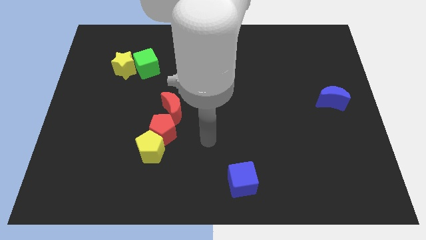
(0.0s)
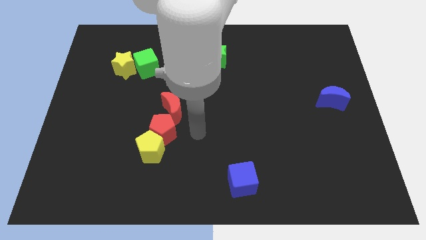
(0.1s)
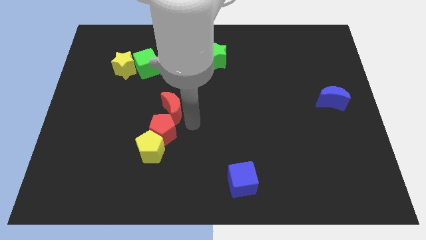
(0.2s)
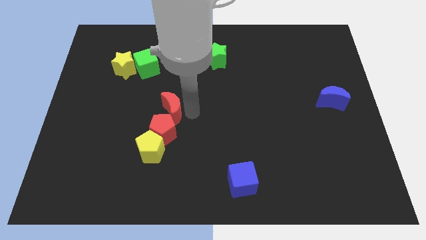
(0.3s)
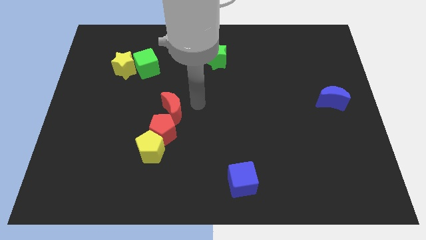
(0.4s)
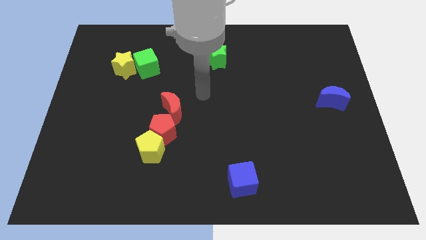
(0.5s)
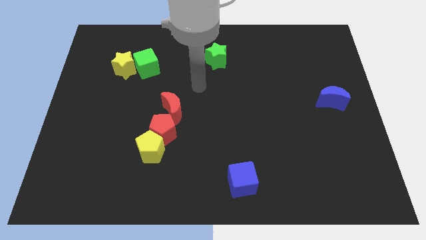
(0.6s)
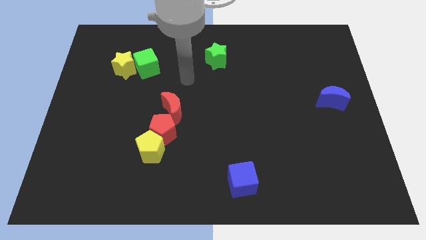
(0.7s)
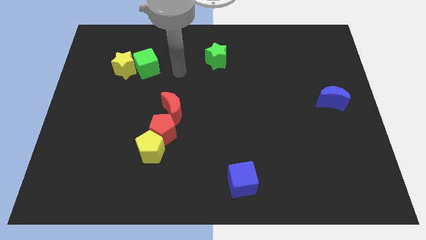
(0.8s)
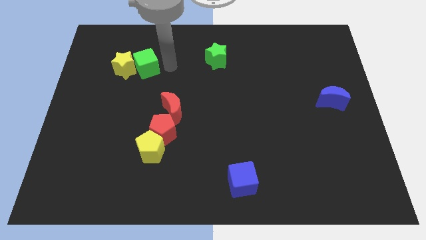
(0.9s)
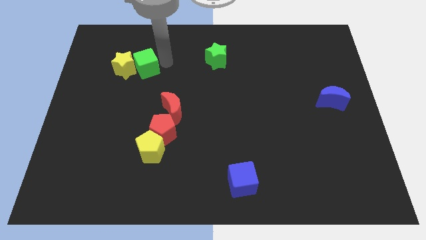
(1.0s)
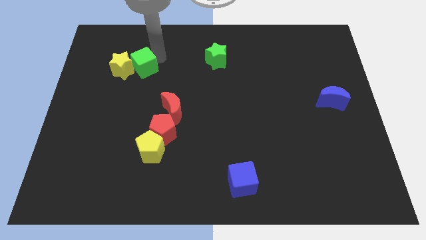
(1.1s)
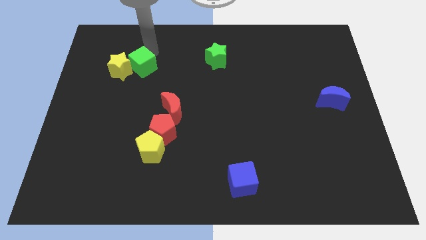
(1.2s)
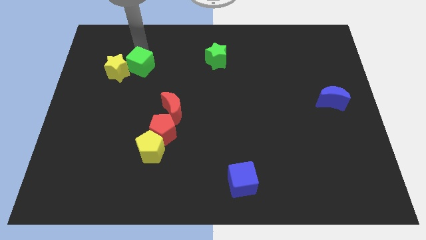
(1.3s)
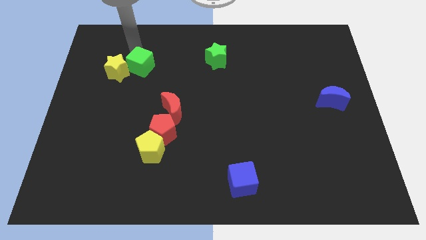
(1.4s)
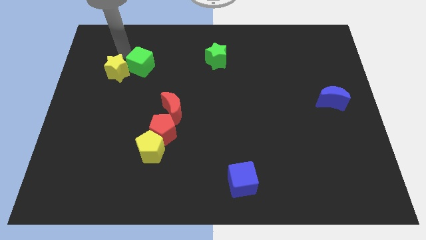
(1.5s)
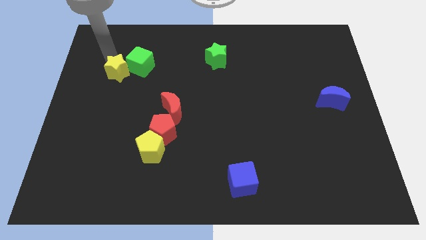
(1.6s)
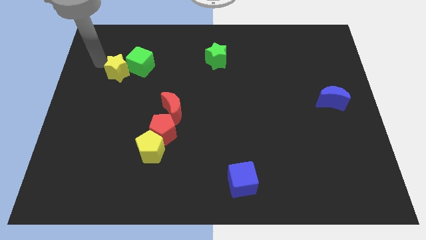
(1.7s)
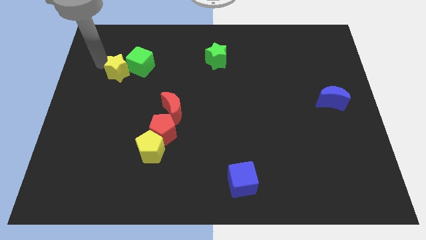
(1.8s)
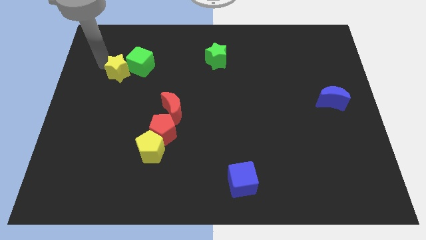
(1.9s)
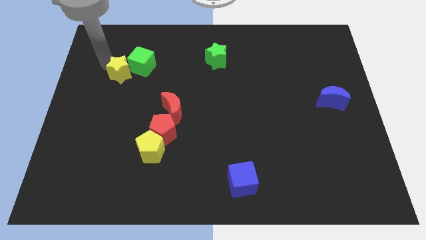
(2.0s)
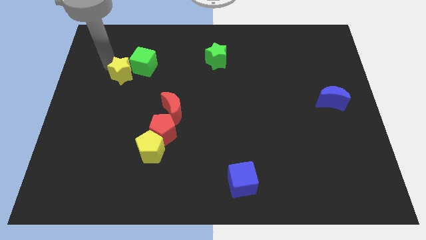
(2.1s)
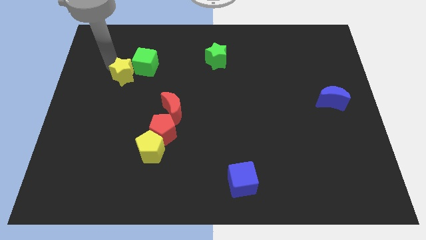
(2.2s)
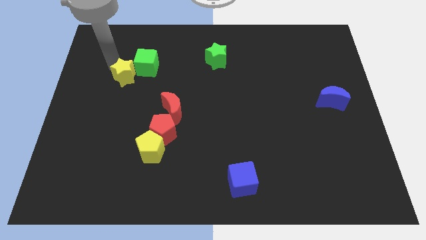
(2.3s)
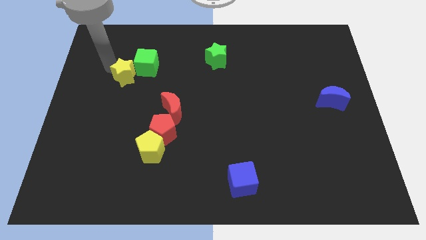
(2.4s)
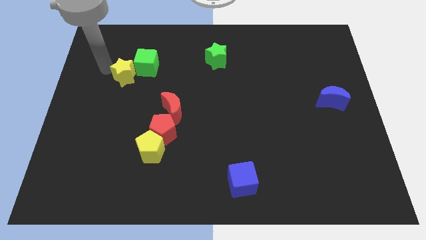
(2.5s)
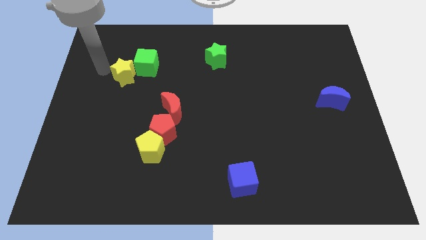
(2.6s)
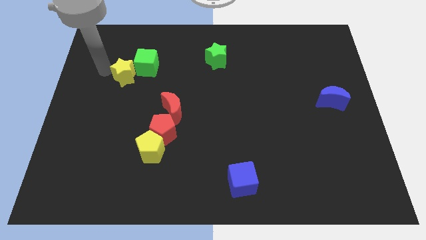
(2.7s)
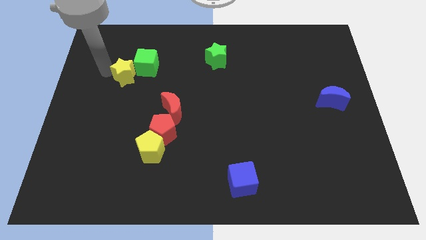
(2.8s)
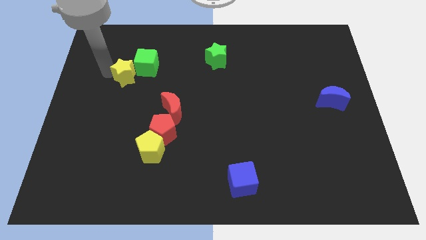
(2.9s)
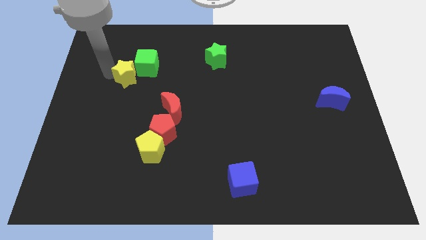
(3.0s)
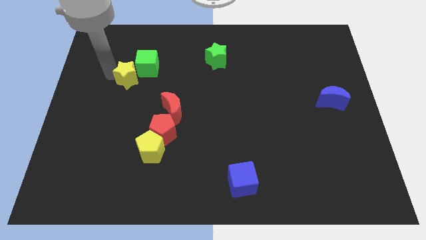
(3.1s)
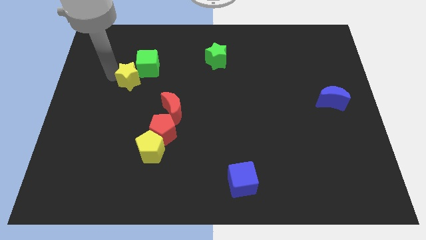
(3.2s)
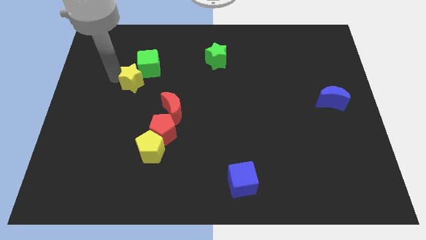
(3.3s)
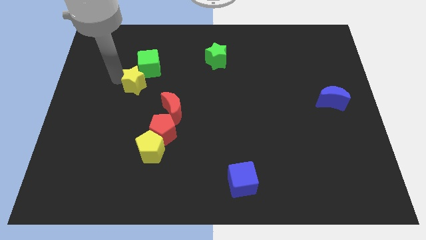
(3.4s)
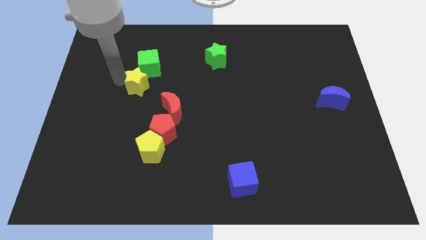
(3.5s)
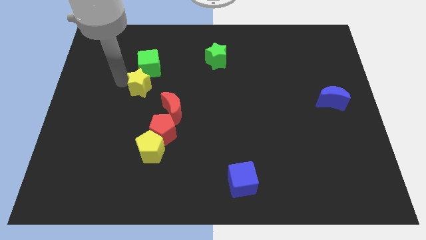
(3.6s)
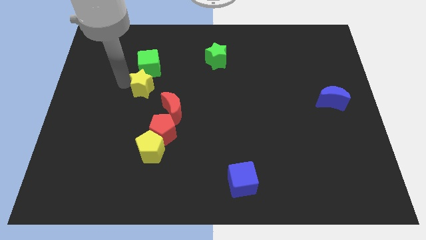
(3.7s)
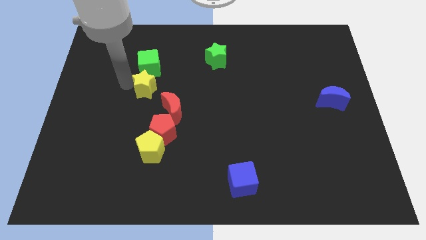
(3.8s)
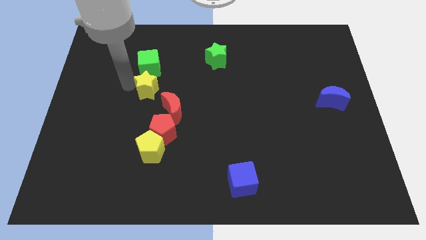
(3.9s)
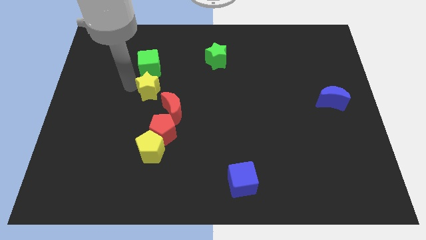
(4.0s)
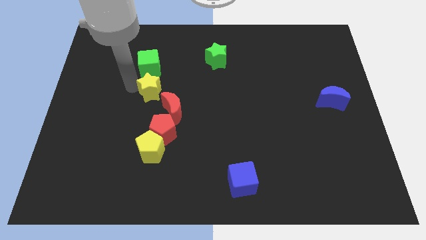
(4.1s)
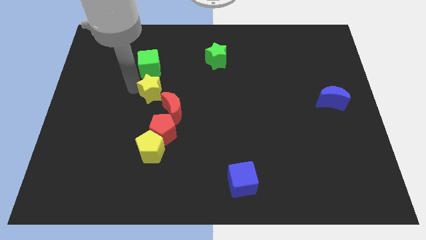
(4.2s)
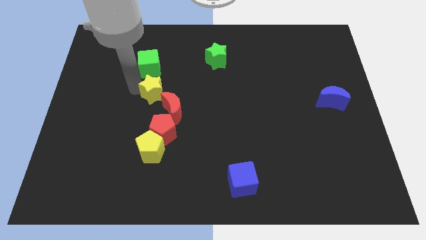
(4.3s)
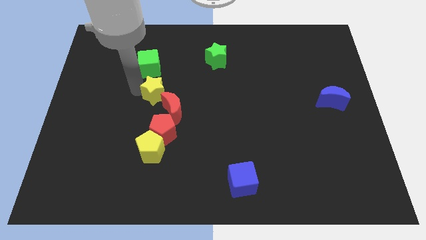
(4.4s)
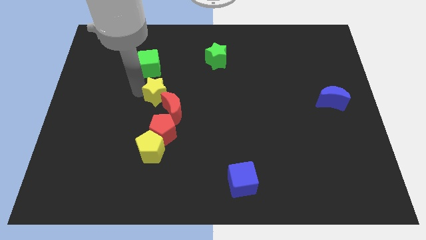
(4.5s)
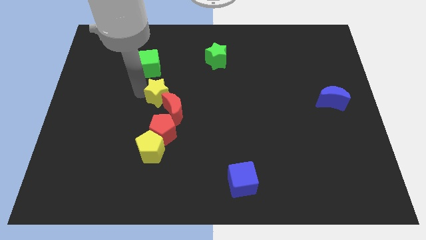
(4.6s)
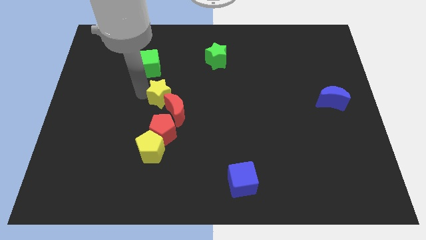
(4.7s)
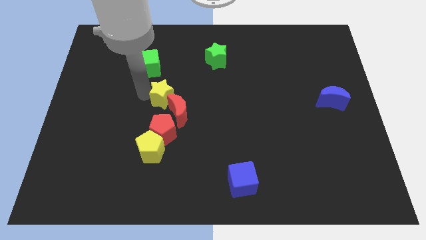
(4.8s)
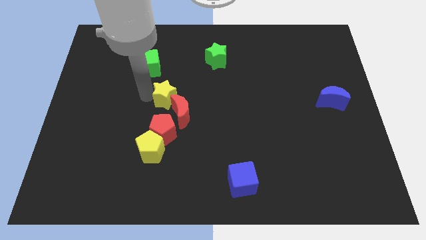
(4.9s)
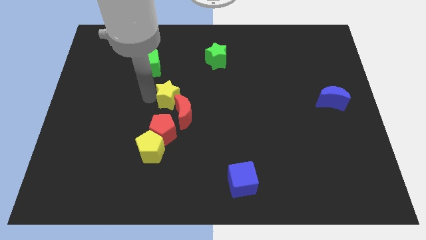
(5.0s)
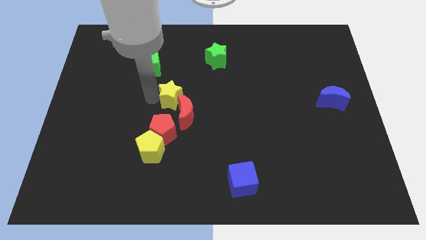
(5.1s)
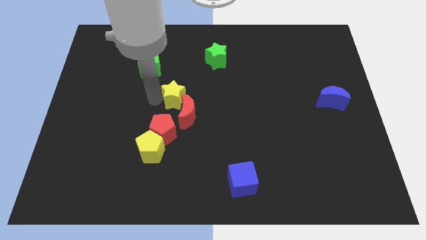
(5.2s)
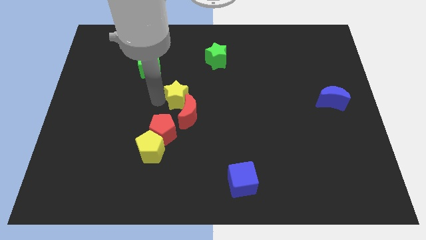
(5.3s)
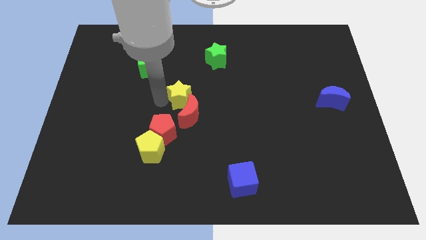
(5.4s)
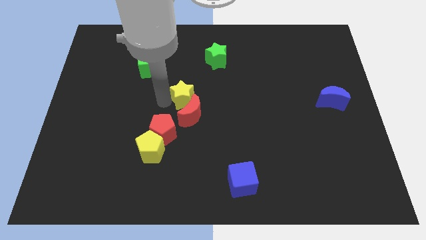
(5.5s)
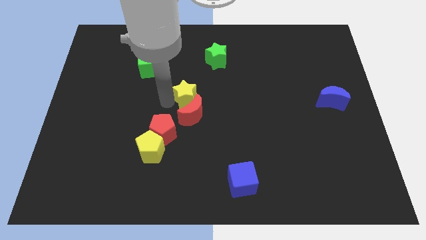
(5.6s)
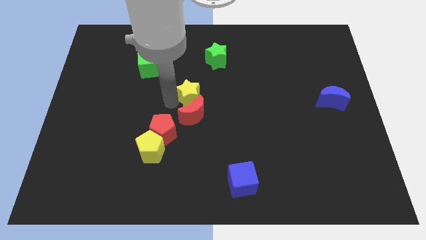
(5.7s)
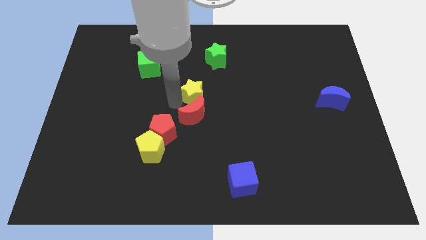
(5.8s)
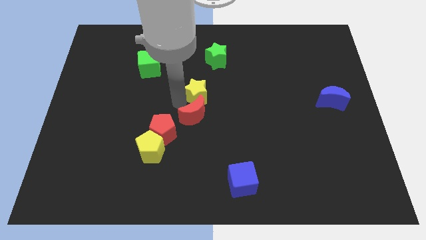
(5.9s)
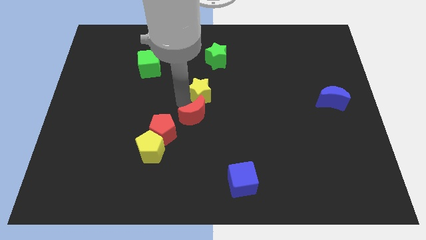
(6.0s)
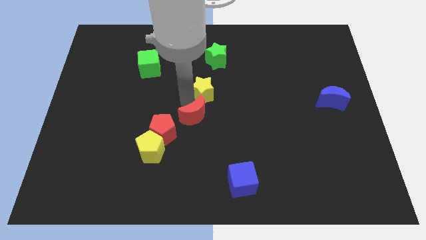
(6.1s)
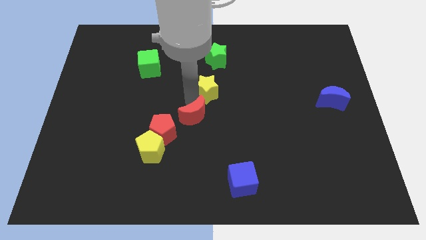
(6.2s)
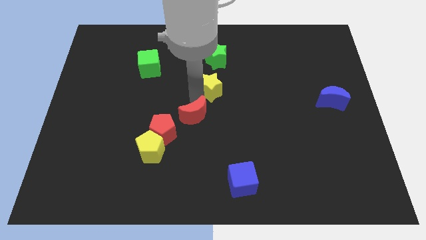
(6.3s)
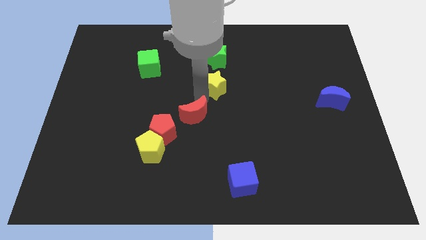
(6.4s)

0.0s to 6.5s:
push the yellow star to the right

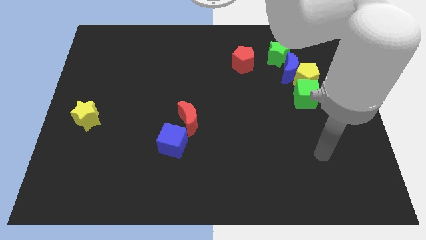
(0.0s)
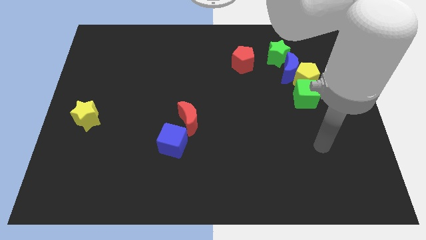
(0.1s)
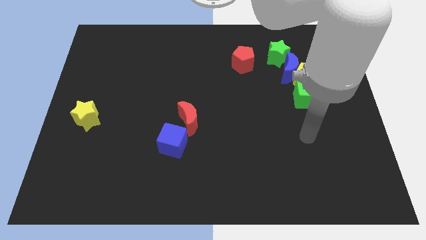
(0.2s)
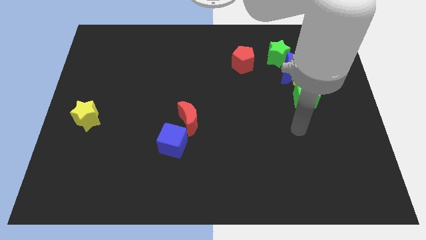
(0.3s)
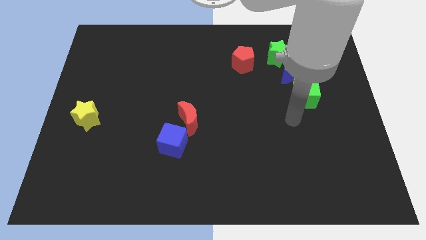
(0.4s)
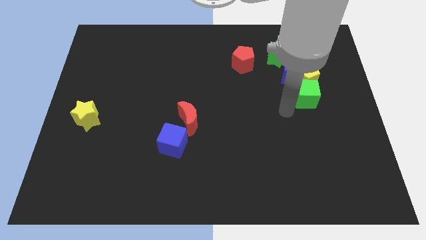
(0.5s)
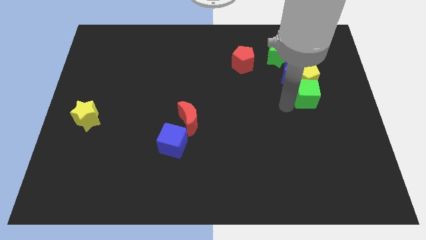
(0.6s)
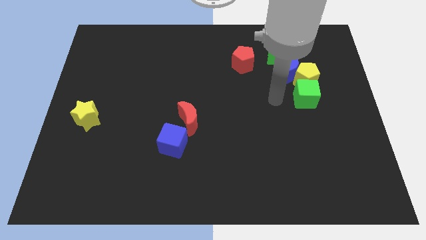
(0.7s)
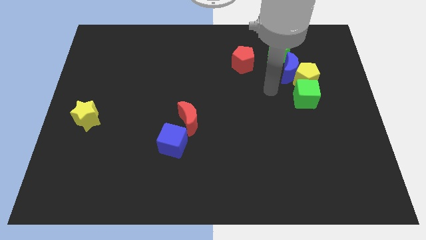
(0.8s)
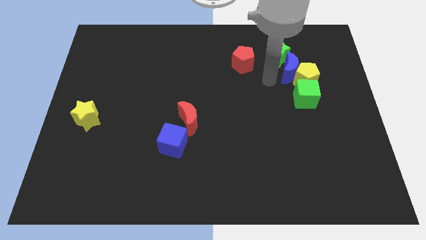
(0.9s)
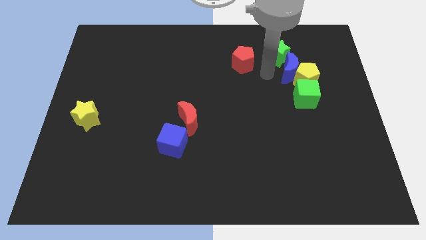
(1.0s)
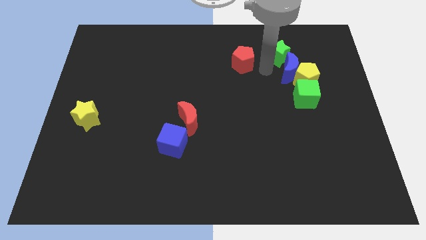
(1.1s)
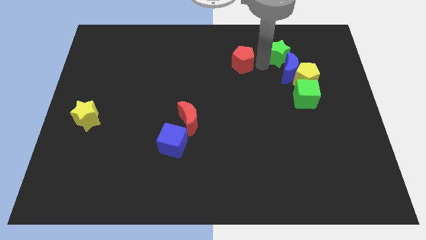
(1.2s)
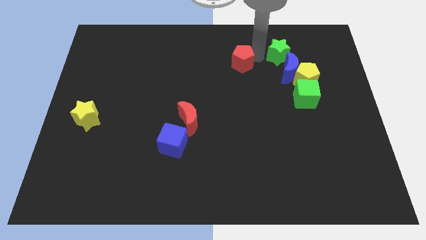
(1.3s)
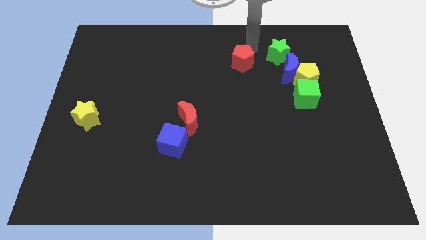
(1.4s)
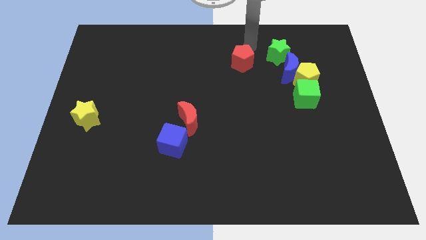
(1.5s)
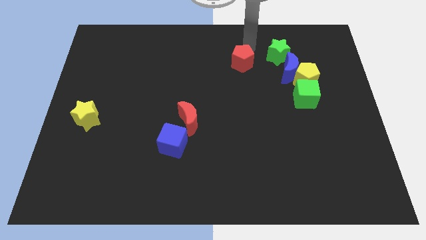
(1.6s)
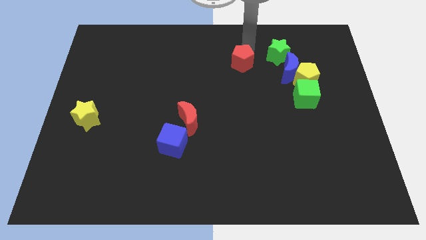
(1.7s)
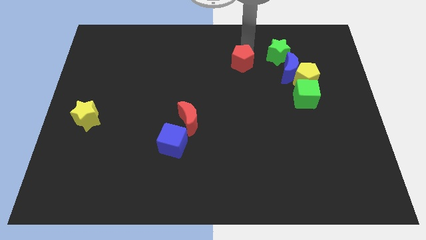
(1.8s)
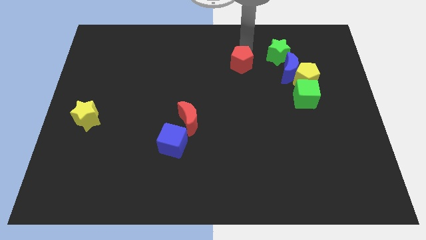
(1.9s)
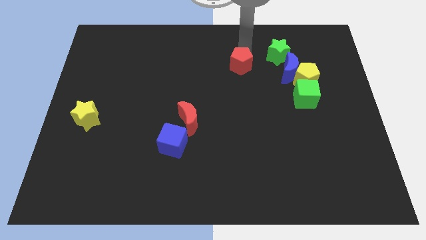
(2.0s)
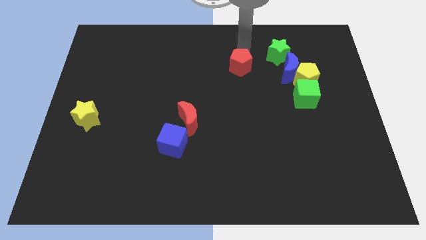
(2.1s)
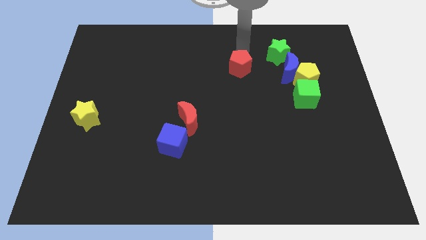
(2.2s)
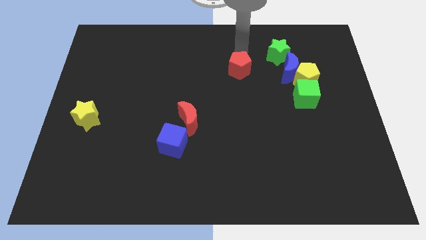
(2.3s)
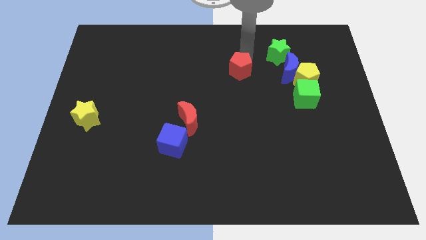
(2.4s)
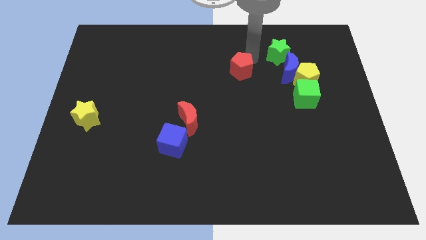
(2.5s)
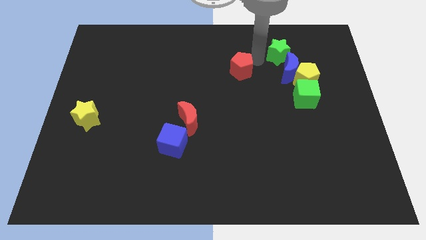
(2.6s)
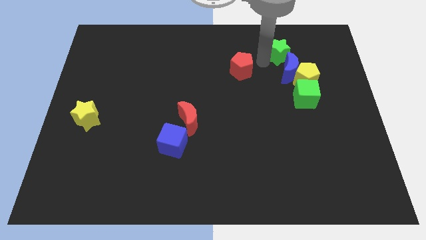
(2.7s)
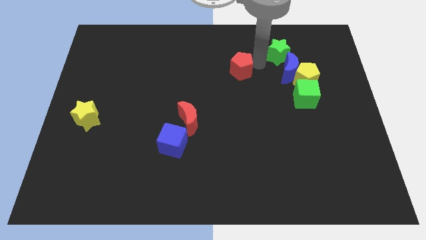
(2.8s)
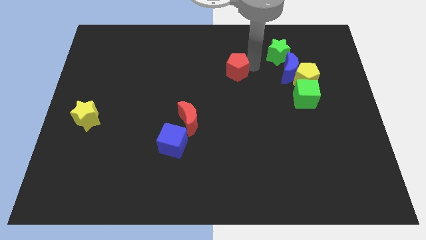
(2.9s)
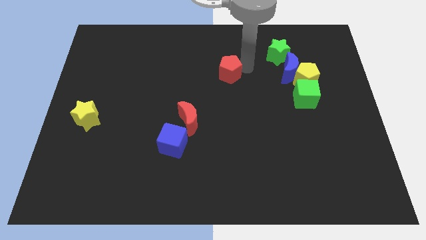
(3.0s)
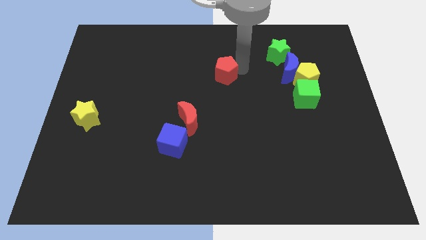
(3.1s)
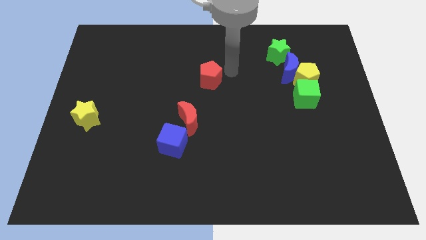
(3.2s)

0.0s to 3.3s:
move the red pentagon down and left a bit
